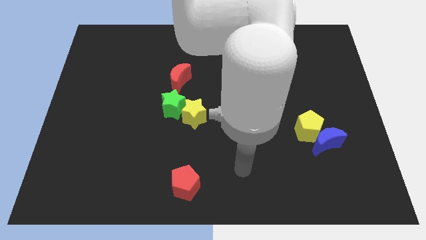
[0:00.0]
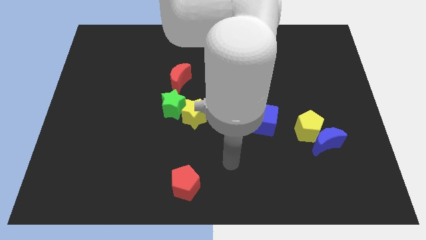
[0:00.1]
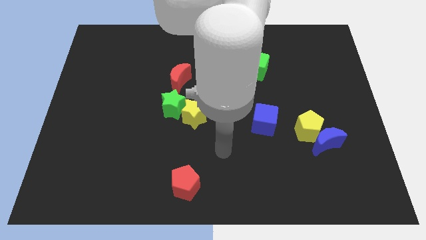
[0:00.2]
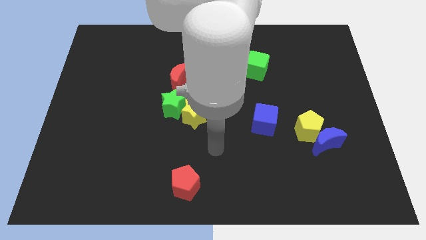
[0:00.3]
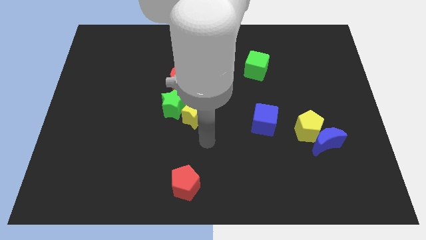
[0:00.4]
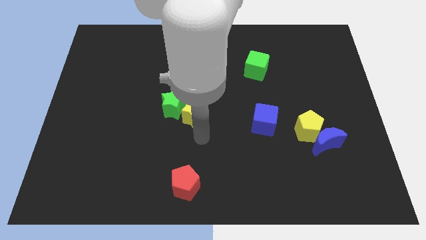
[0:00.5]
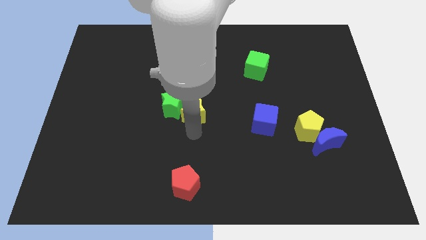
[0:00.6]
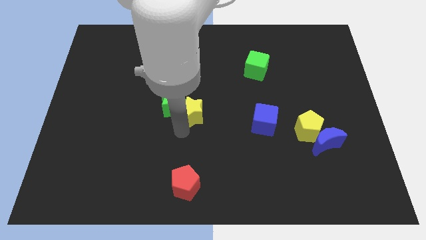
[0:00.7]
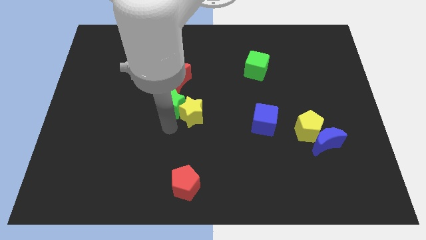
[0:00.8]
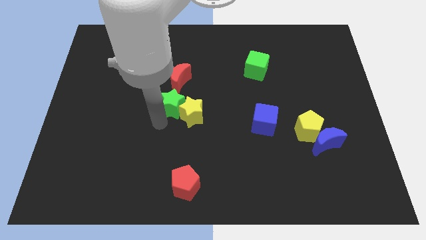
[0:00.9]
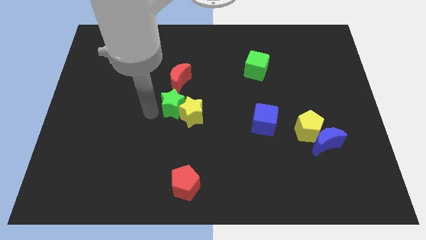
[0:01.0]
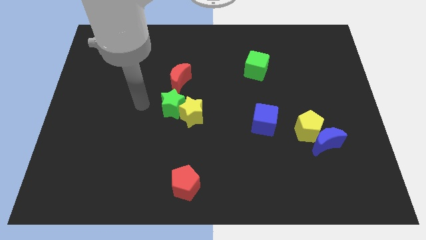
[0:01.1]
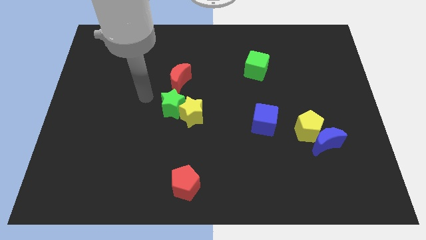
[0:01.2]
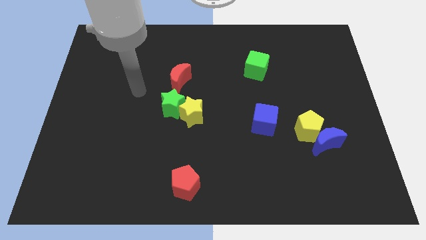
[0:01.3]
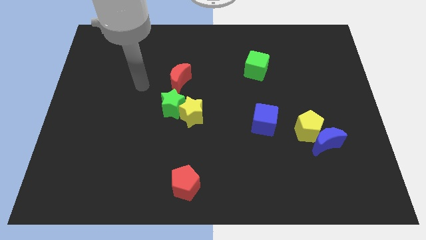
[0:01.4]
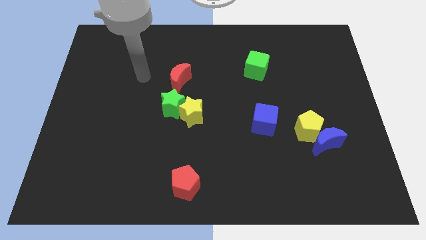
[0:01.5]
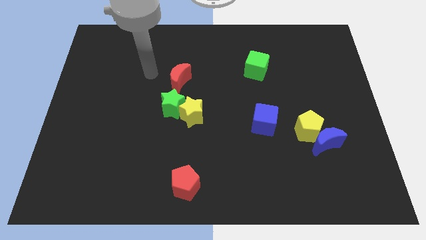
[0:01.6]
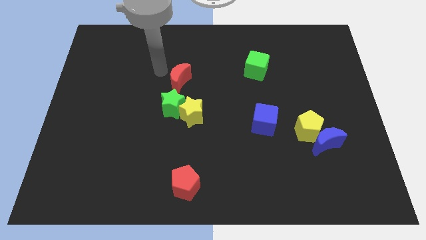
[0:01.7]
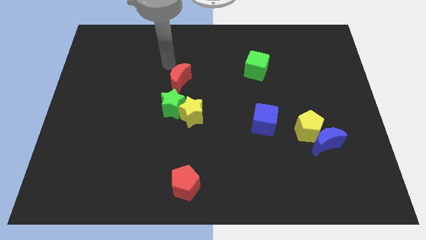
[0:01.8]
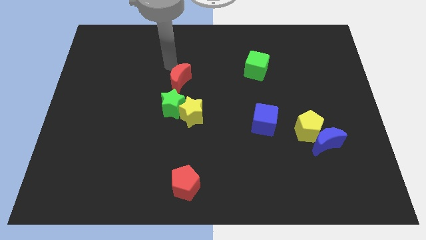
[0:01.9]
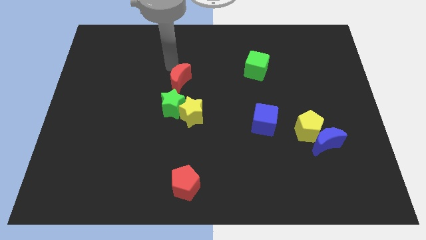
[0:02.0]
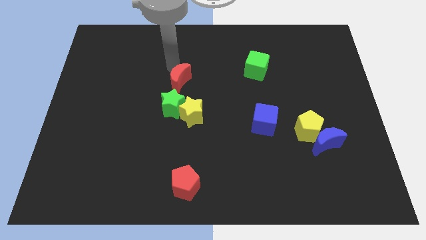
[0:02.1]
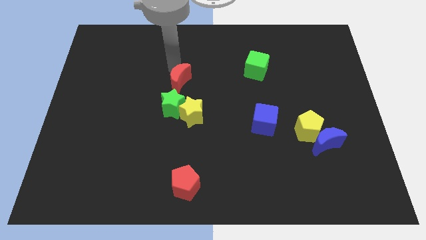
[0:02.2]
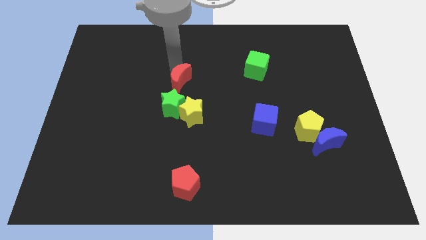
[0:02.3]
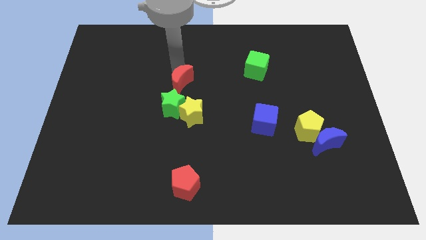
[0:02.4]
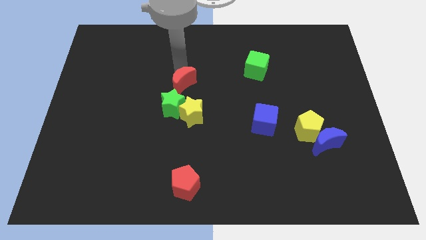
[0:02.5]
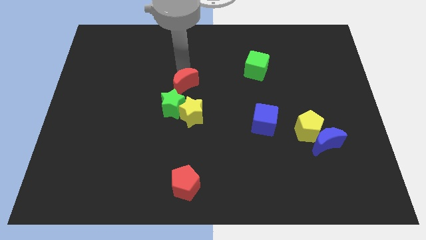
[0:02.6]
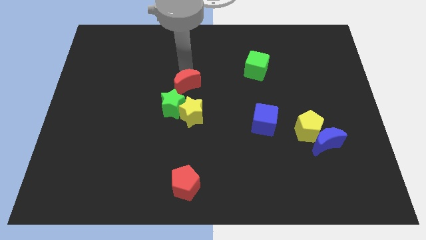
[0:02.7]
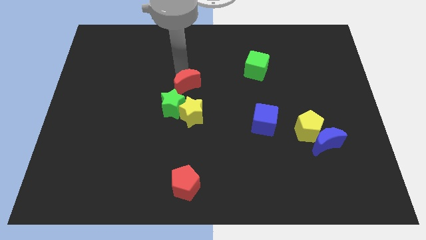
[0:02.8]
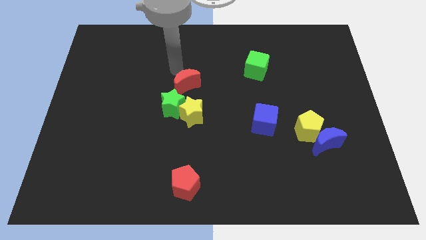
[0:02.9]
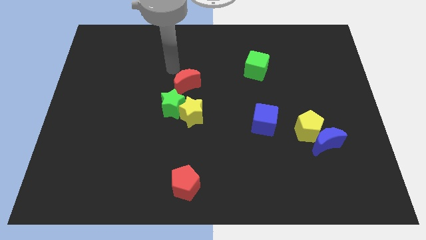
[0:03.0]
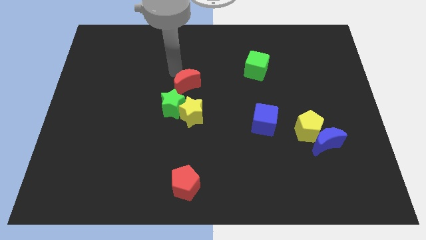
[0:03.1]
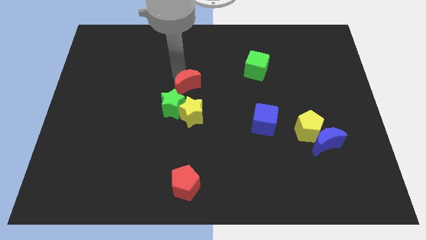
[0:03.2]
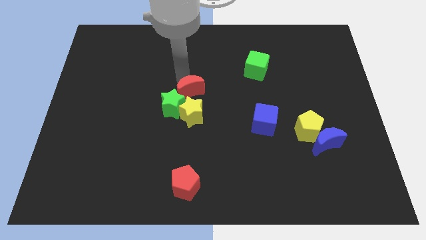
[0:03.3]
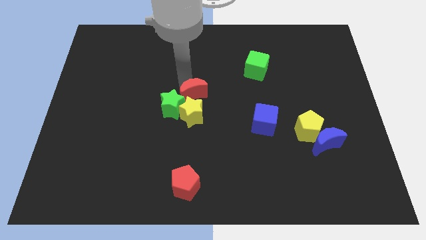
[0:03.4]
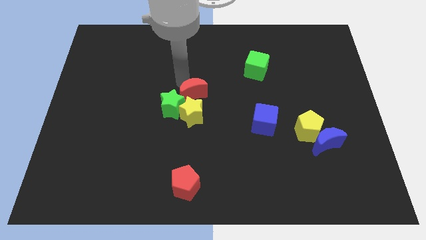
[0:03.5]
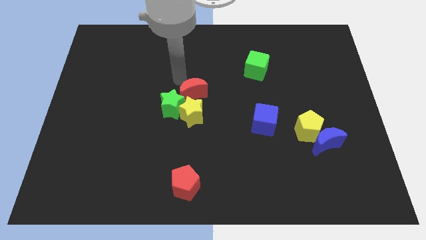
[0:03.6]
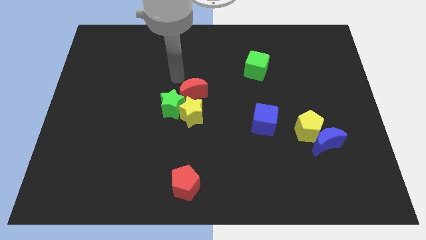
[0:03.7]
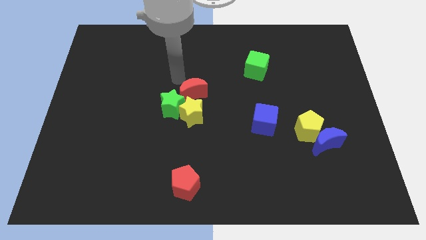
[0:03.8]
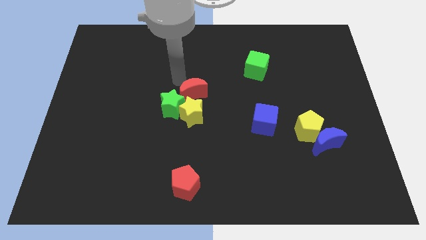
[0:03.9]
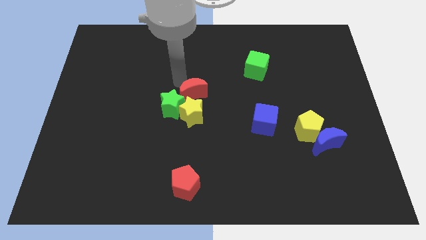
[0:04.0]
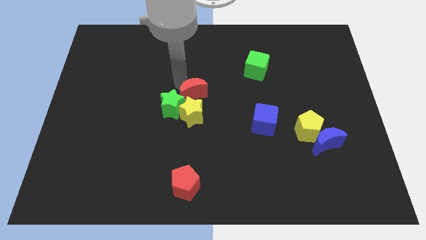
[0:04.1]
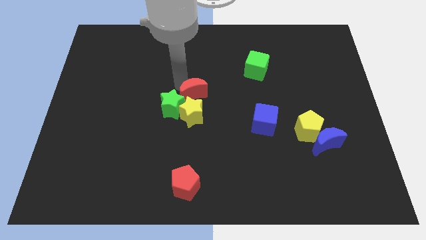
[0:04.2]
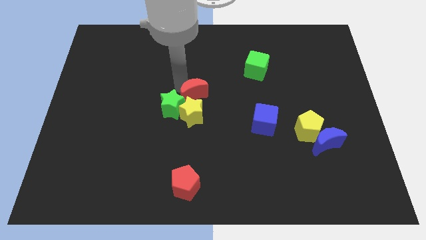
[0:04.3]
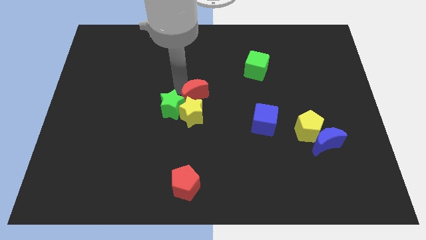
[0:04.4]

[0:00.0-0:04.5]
slide the red moon towards the yellow star

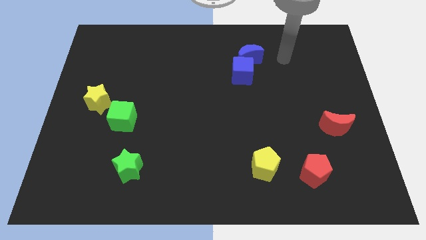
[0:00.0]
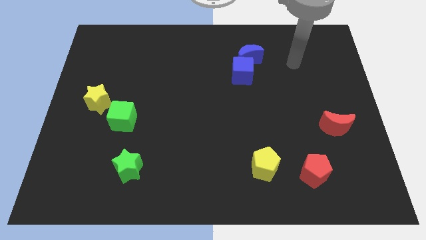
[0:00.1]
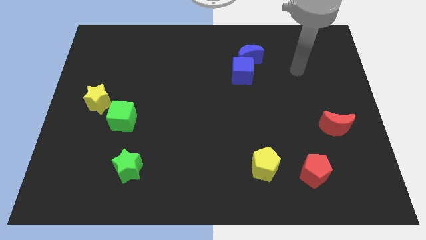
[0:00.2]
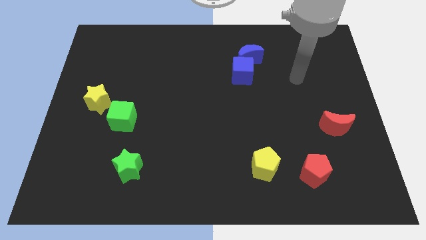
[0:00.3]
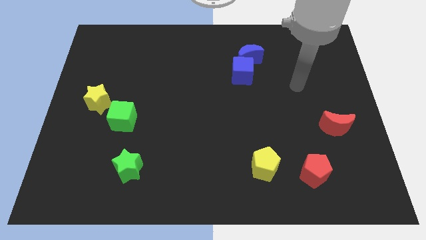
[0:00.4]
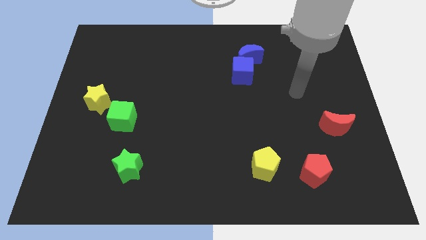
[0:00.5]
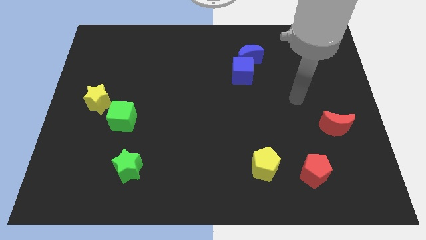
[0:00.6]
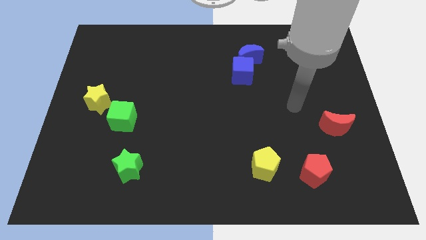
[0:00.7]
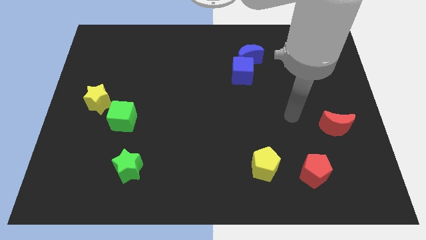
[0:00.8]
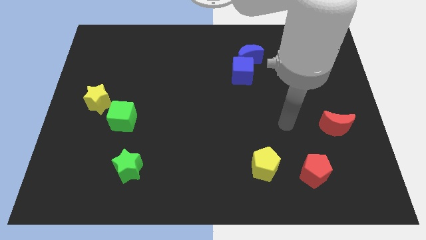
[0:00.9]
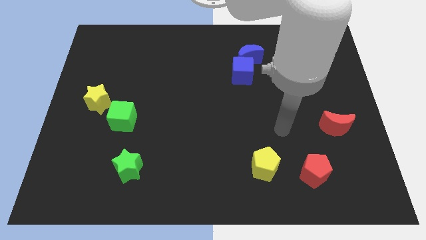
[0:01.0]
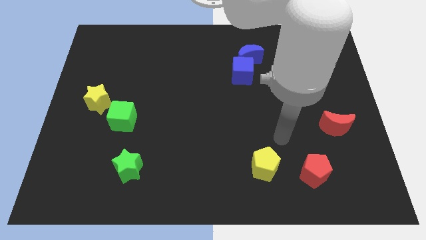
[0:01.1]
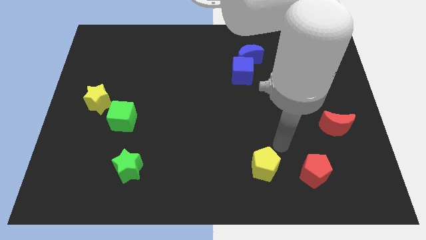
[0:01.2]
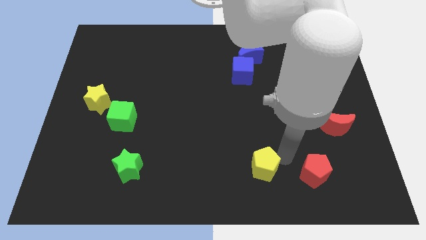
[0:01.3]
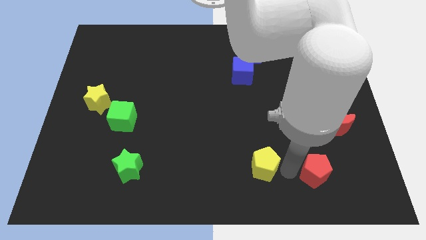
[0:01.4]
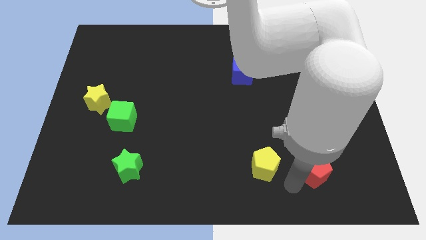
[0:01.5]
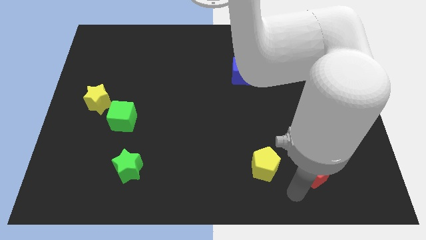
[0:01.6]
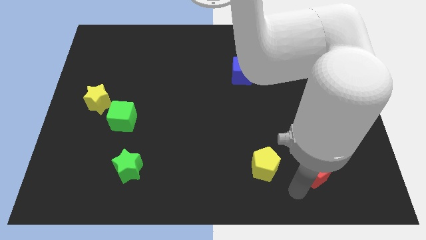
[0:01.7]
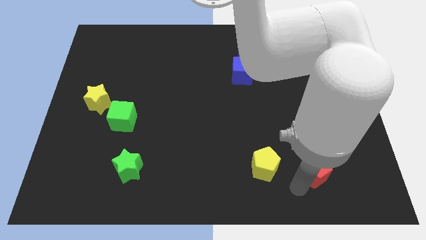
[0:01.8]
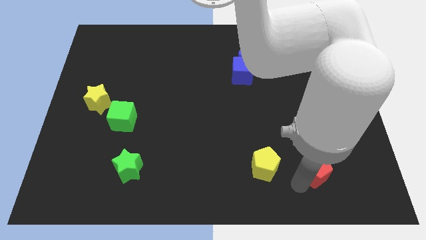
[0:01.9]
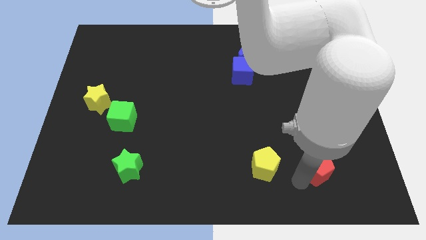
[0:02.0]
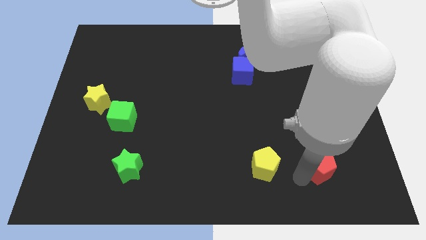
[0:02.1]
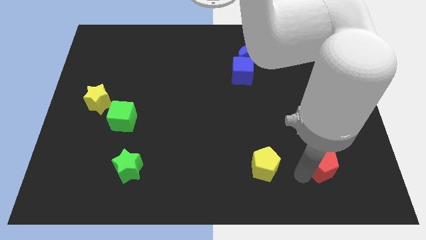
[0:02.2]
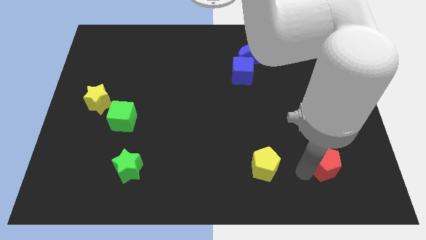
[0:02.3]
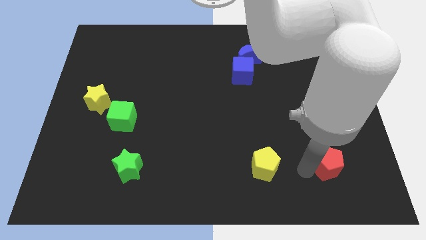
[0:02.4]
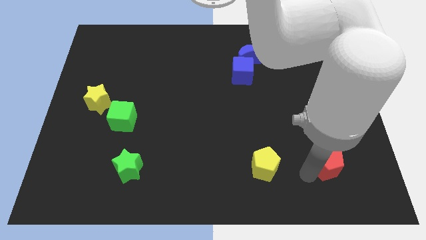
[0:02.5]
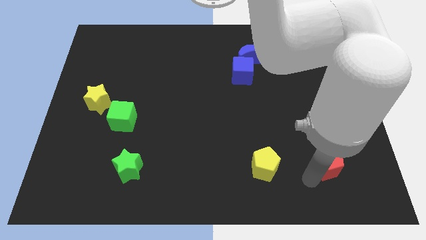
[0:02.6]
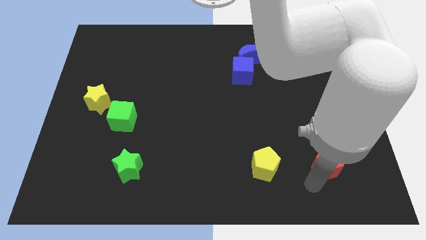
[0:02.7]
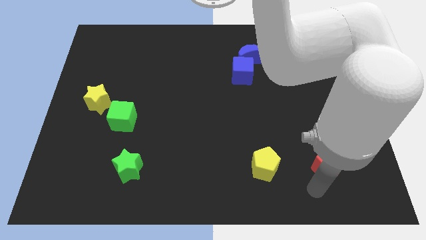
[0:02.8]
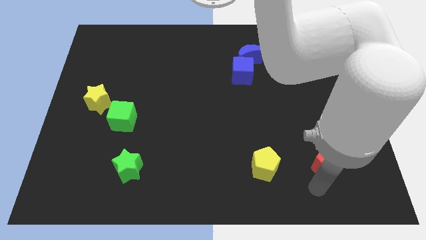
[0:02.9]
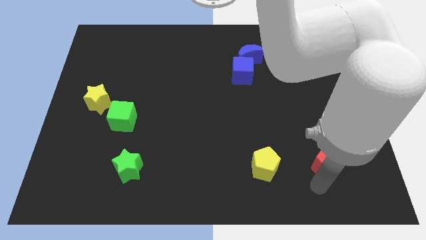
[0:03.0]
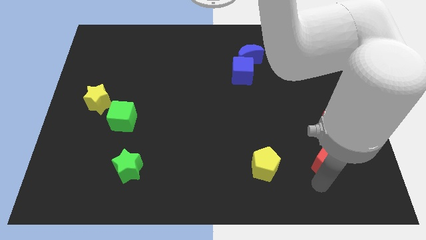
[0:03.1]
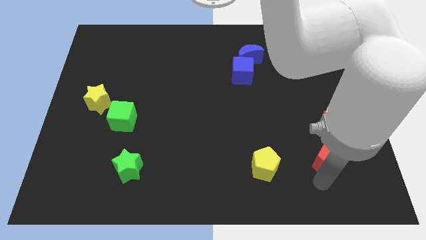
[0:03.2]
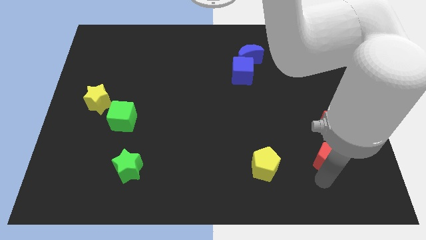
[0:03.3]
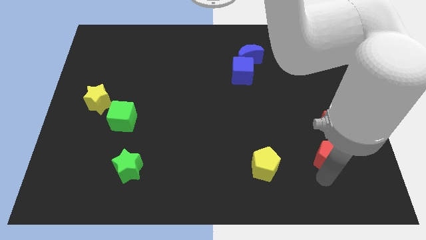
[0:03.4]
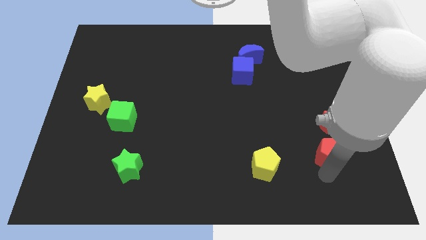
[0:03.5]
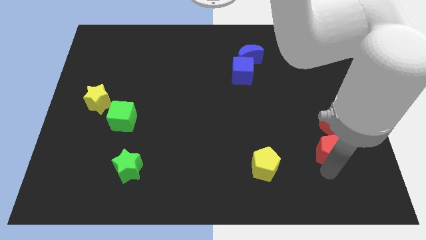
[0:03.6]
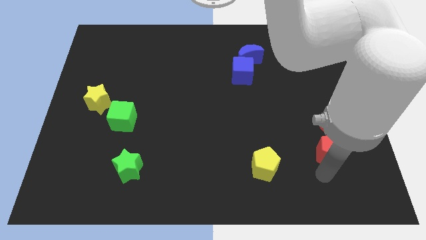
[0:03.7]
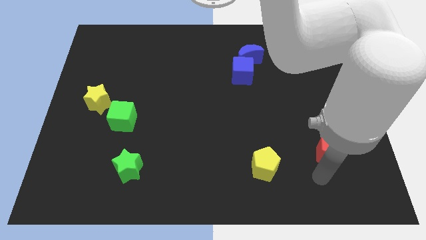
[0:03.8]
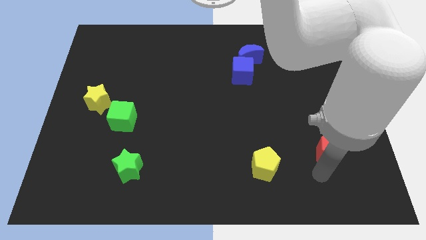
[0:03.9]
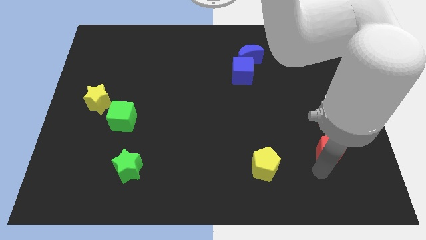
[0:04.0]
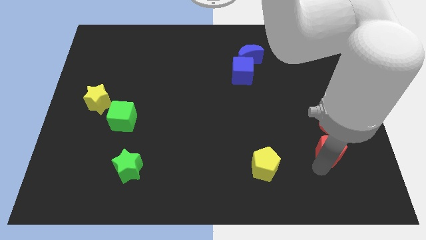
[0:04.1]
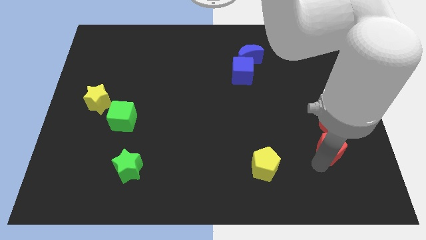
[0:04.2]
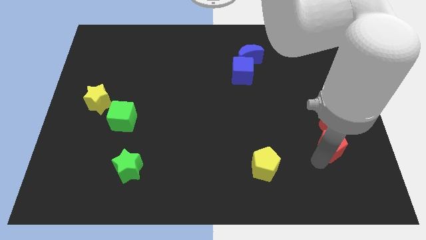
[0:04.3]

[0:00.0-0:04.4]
slide the red pentagon next to the red moon
